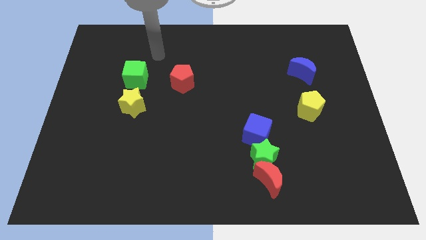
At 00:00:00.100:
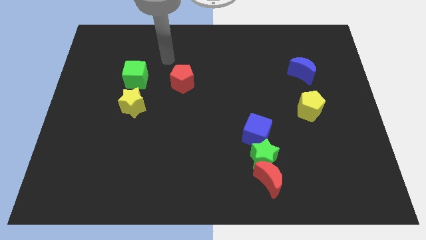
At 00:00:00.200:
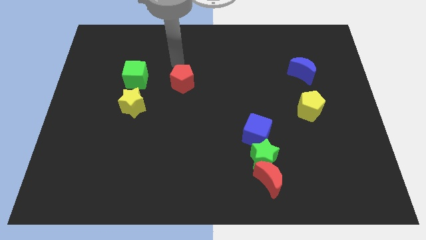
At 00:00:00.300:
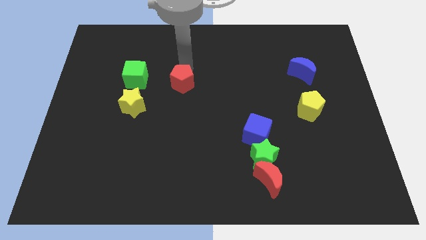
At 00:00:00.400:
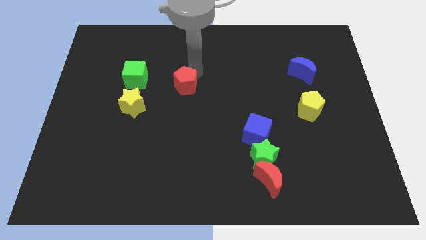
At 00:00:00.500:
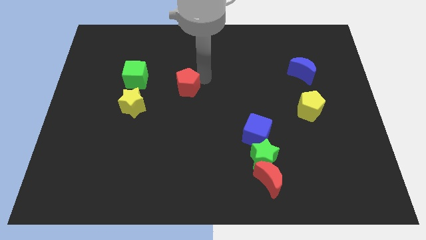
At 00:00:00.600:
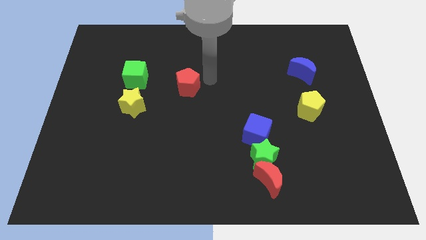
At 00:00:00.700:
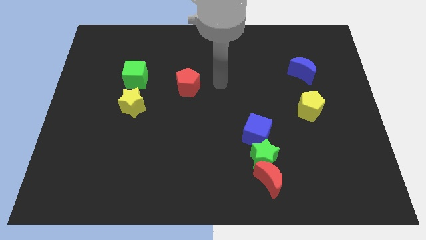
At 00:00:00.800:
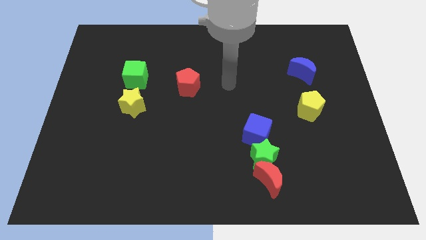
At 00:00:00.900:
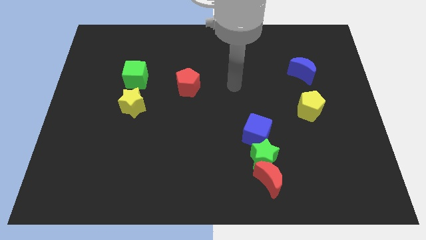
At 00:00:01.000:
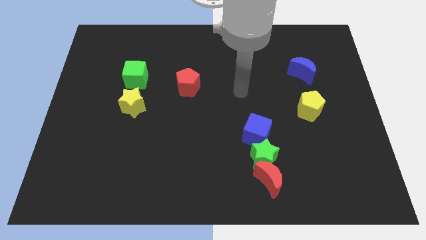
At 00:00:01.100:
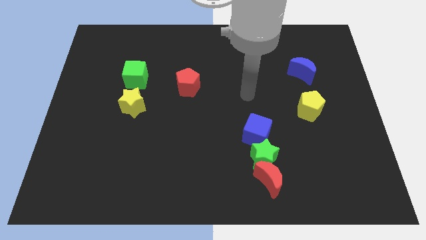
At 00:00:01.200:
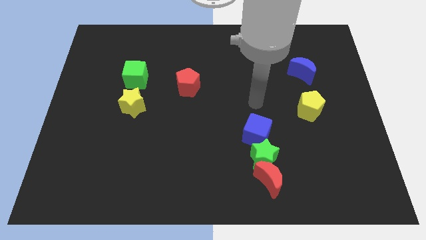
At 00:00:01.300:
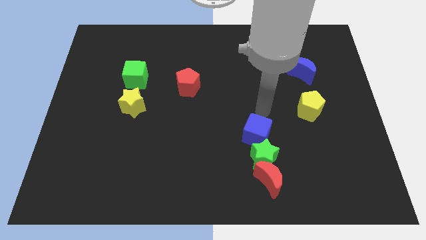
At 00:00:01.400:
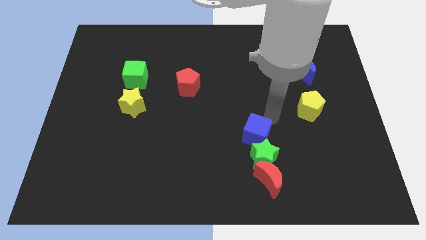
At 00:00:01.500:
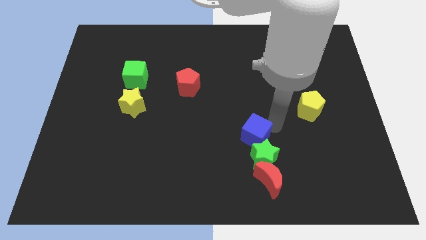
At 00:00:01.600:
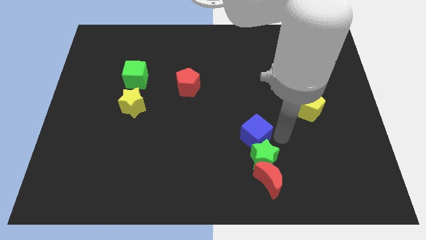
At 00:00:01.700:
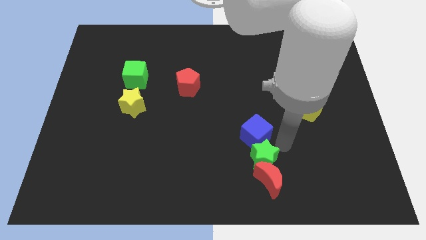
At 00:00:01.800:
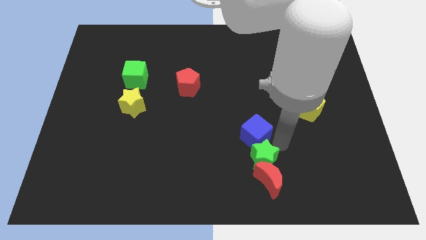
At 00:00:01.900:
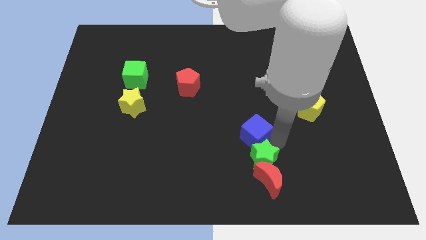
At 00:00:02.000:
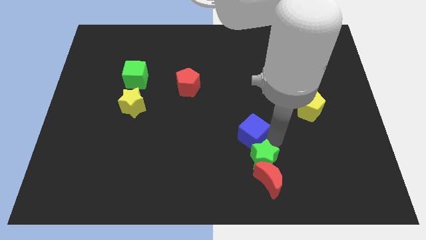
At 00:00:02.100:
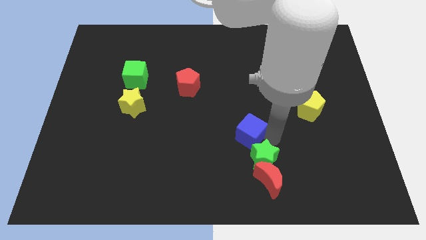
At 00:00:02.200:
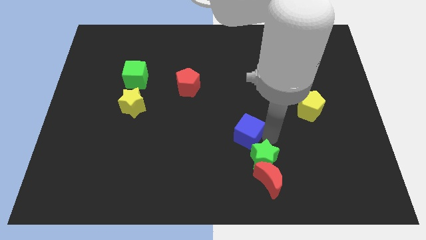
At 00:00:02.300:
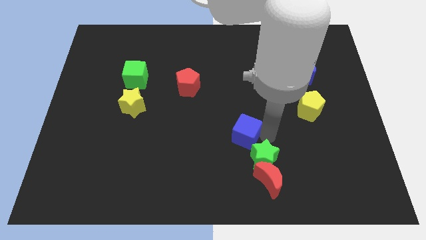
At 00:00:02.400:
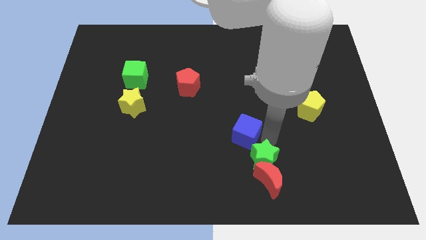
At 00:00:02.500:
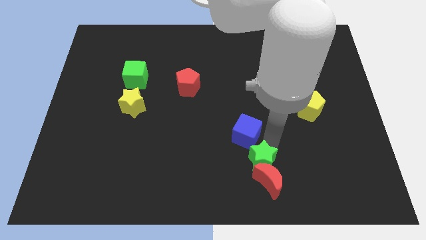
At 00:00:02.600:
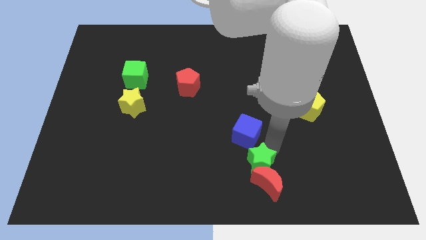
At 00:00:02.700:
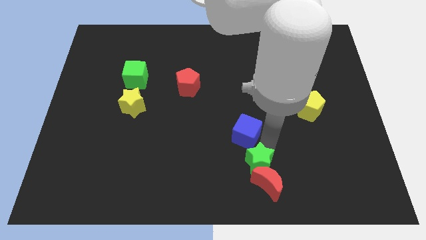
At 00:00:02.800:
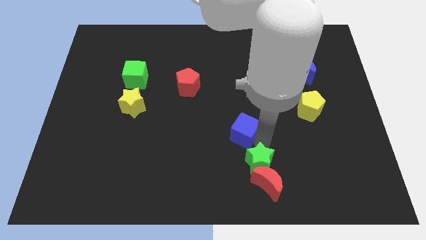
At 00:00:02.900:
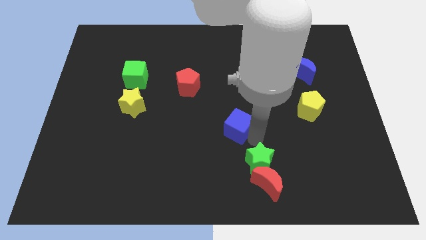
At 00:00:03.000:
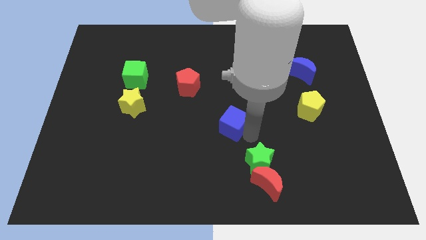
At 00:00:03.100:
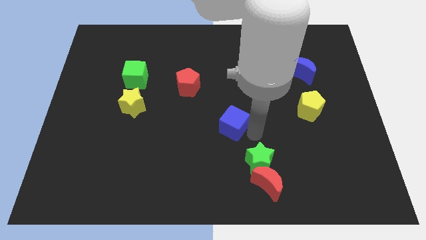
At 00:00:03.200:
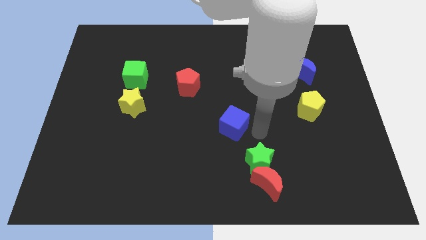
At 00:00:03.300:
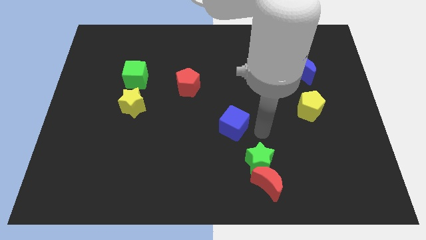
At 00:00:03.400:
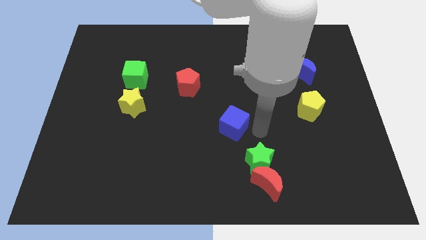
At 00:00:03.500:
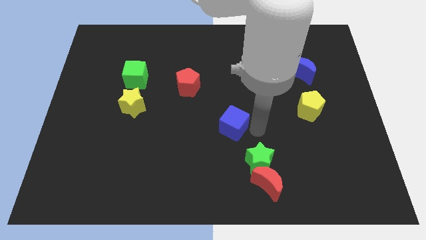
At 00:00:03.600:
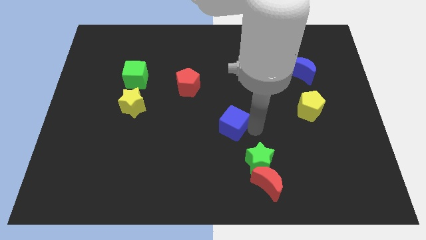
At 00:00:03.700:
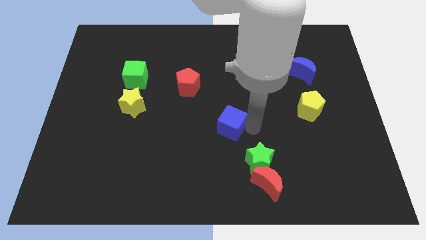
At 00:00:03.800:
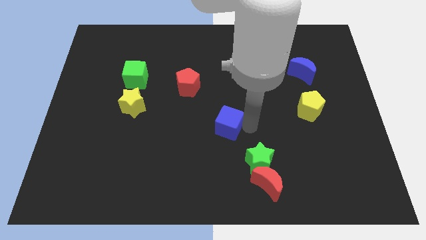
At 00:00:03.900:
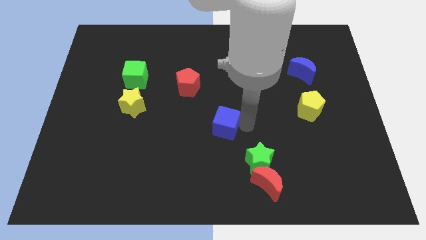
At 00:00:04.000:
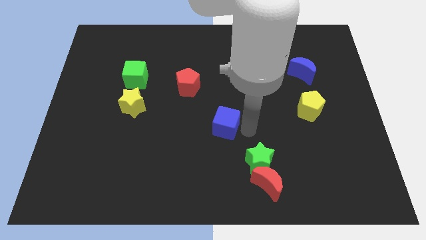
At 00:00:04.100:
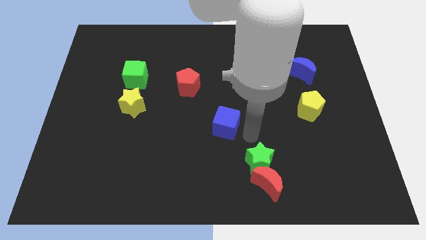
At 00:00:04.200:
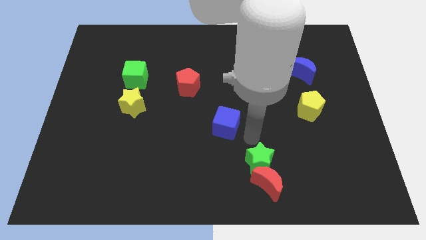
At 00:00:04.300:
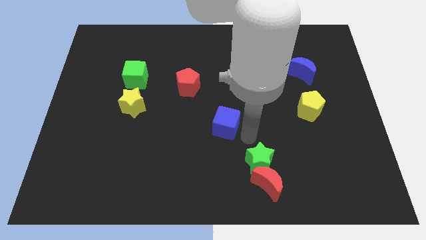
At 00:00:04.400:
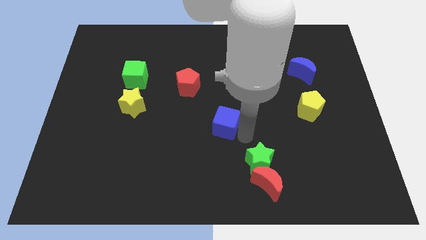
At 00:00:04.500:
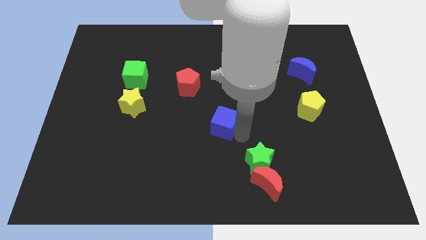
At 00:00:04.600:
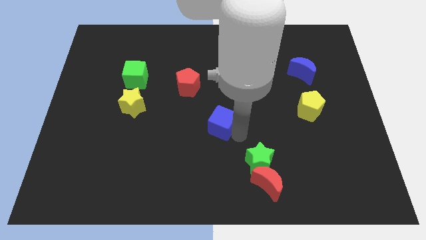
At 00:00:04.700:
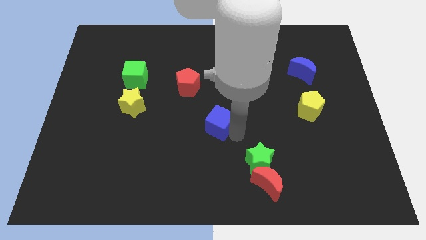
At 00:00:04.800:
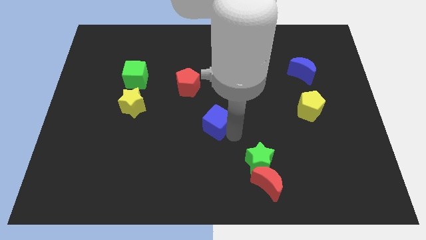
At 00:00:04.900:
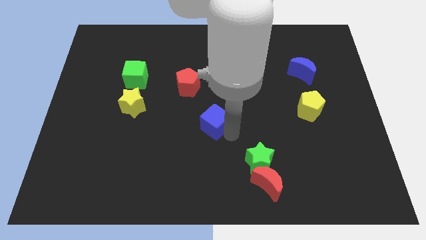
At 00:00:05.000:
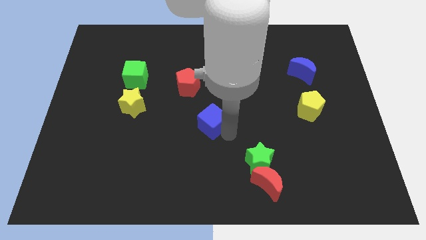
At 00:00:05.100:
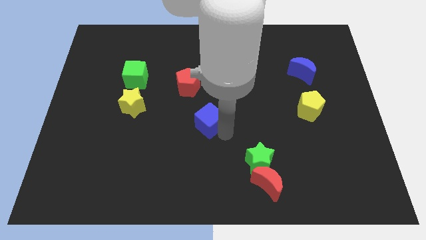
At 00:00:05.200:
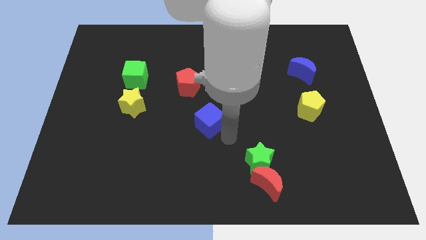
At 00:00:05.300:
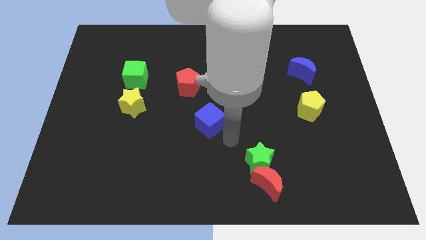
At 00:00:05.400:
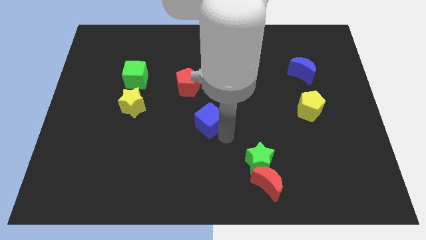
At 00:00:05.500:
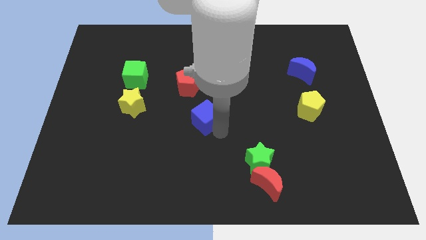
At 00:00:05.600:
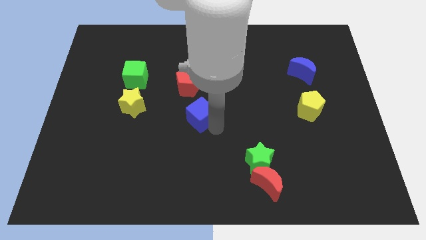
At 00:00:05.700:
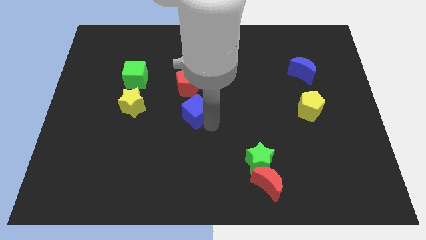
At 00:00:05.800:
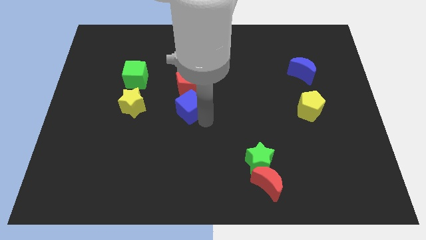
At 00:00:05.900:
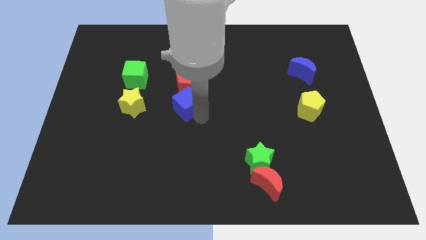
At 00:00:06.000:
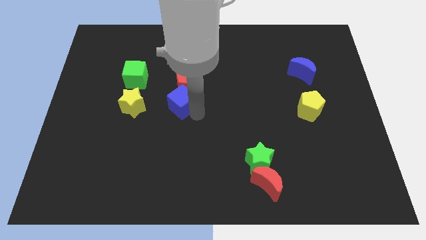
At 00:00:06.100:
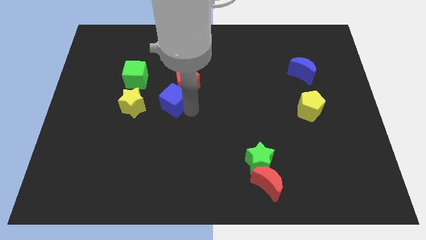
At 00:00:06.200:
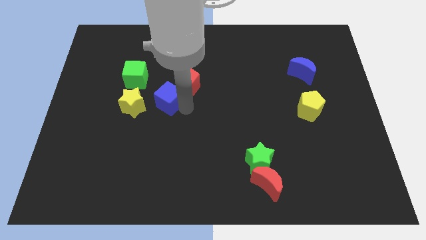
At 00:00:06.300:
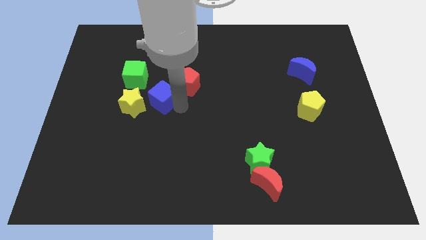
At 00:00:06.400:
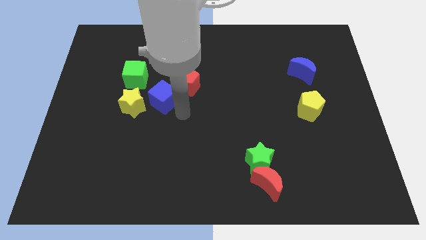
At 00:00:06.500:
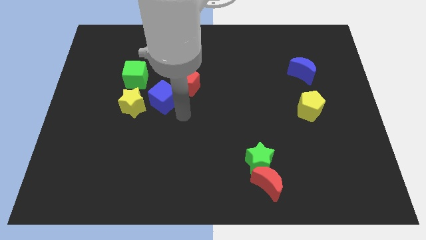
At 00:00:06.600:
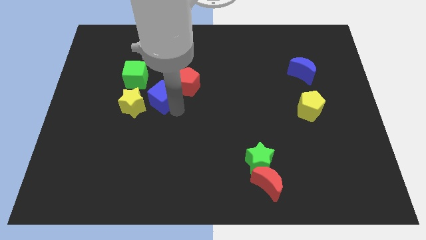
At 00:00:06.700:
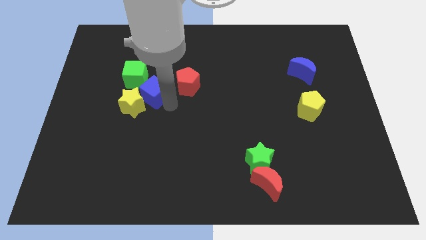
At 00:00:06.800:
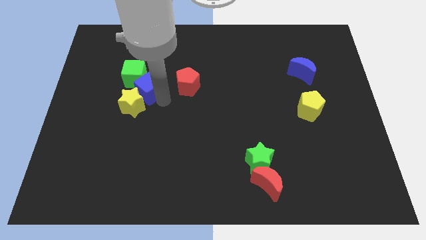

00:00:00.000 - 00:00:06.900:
slide the blue cube to the green cube

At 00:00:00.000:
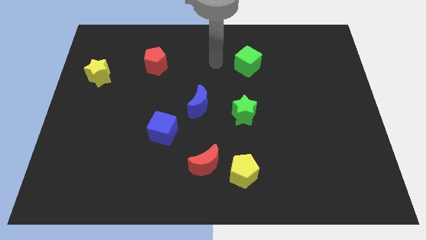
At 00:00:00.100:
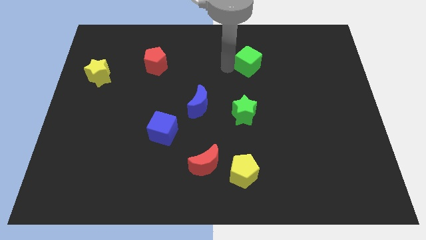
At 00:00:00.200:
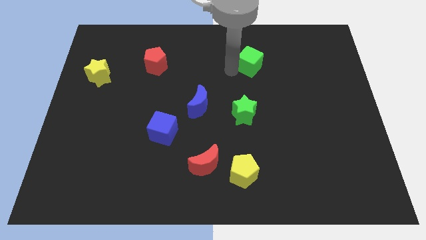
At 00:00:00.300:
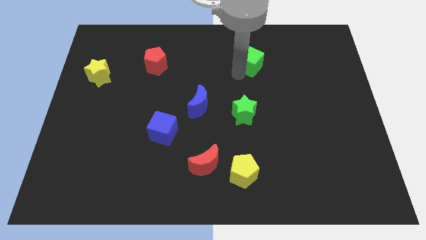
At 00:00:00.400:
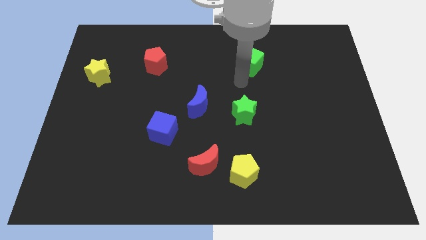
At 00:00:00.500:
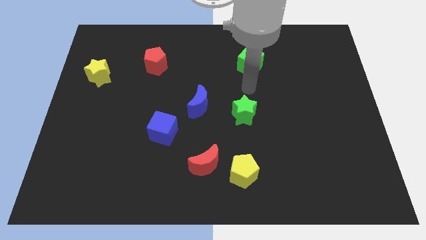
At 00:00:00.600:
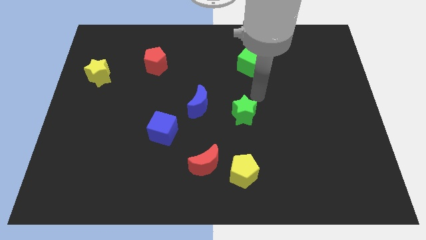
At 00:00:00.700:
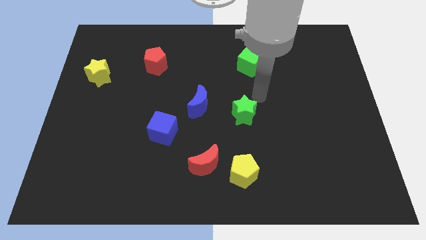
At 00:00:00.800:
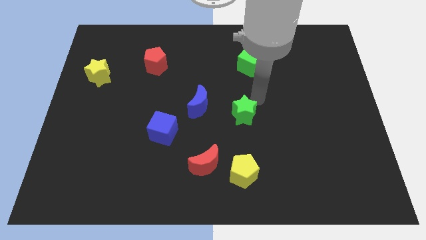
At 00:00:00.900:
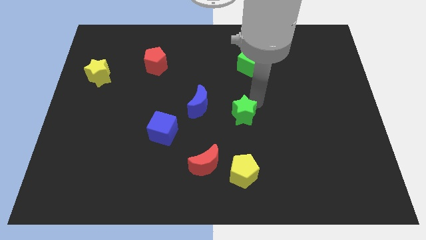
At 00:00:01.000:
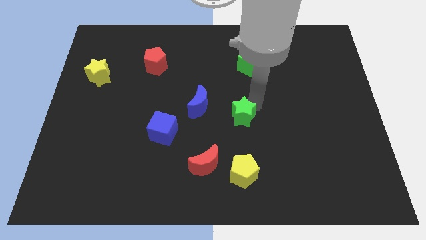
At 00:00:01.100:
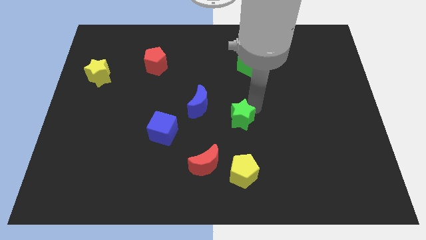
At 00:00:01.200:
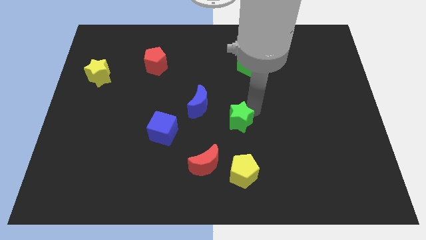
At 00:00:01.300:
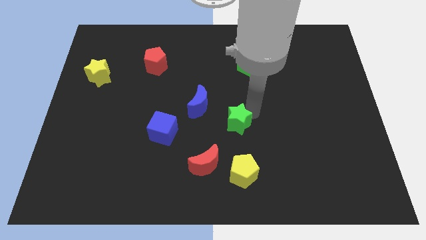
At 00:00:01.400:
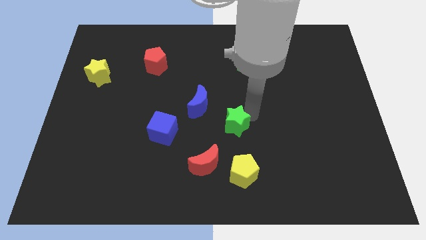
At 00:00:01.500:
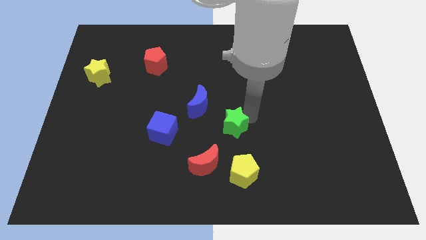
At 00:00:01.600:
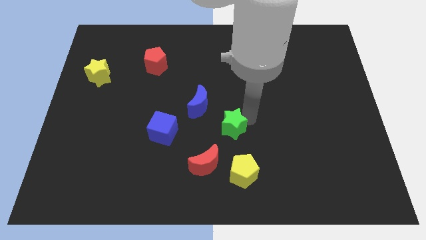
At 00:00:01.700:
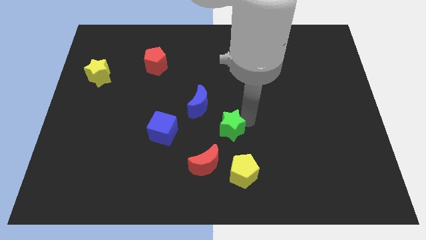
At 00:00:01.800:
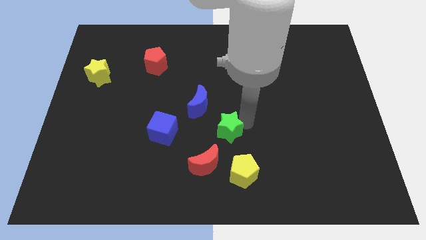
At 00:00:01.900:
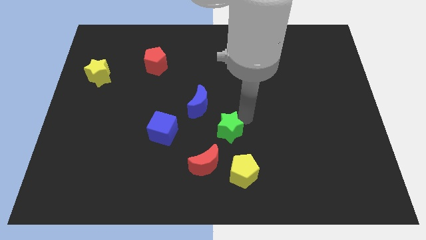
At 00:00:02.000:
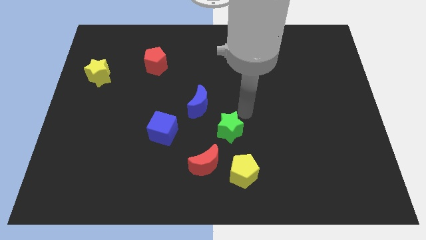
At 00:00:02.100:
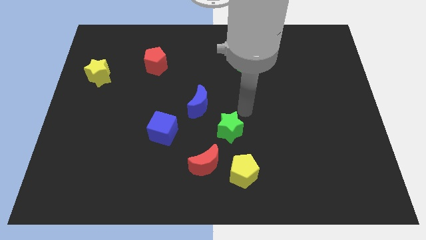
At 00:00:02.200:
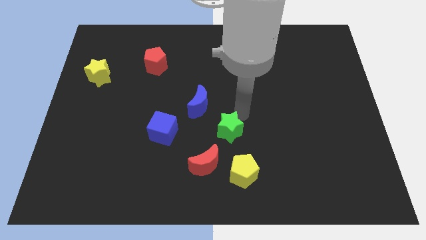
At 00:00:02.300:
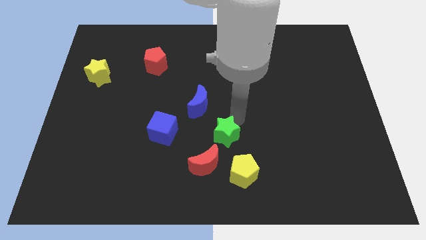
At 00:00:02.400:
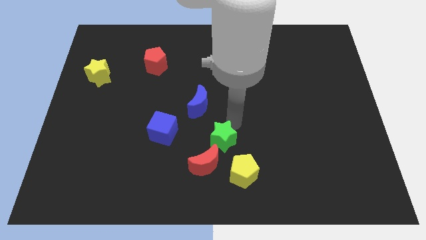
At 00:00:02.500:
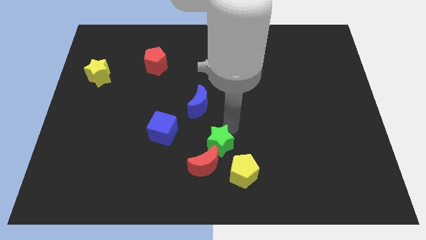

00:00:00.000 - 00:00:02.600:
push the green star close to the red moon
